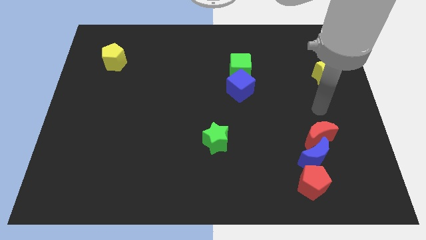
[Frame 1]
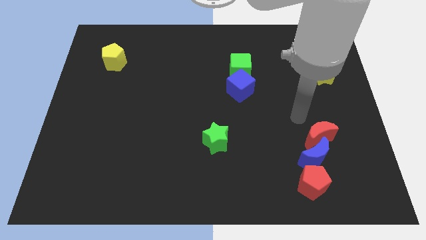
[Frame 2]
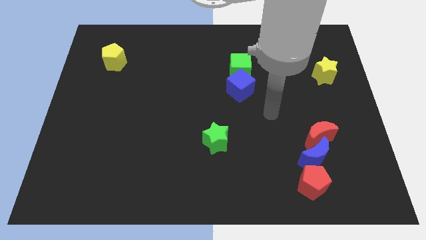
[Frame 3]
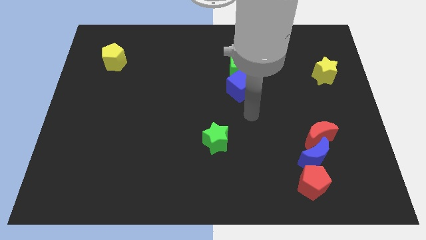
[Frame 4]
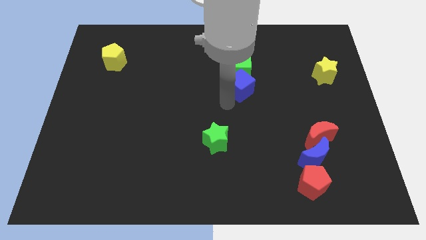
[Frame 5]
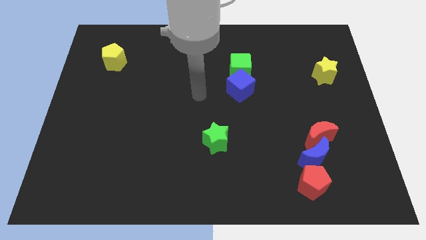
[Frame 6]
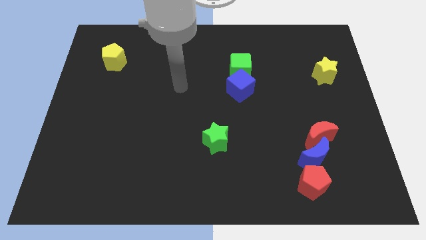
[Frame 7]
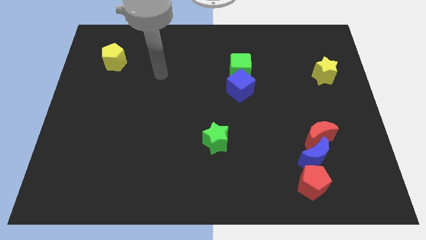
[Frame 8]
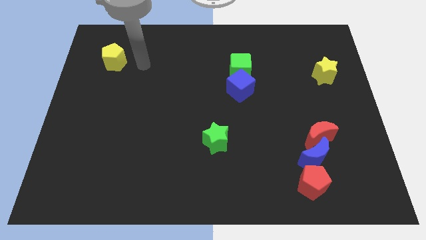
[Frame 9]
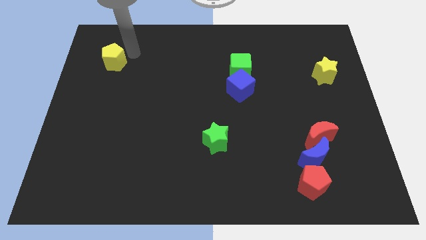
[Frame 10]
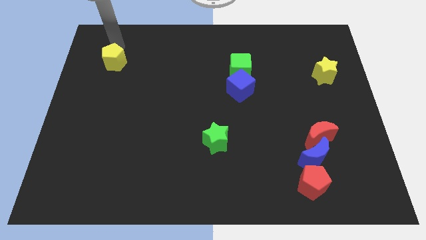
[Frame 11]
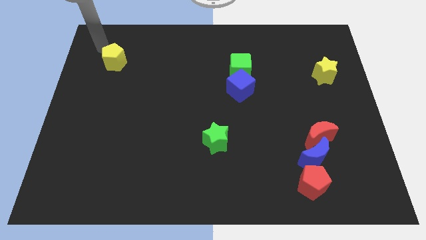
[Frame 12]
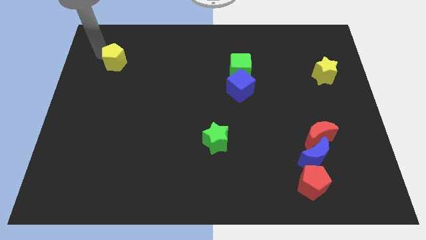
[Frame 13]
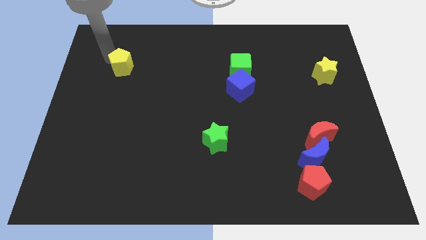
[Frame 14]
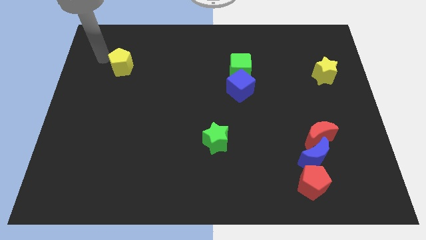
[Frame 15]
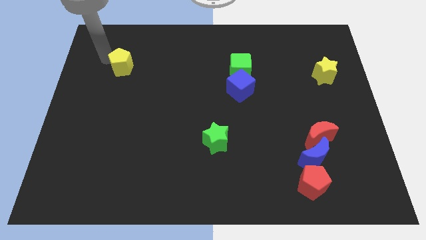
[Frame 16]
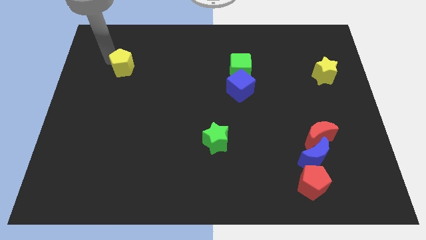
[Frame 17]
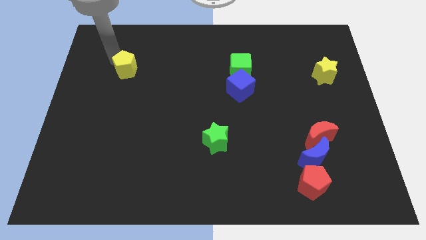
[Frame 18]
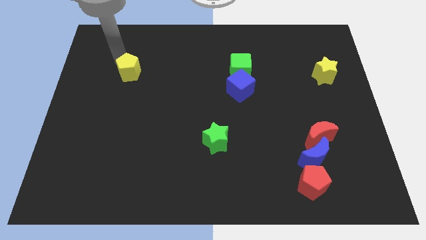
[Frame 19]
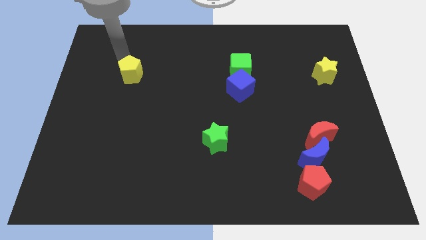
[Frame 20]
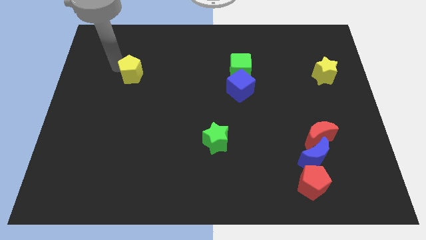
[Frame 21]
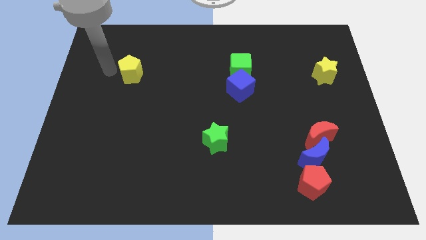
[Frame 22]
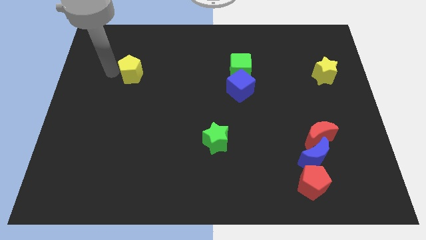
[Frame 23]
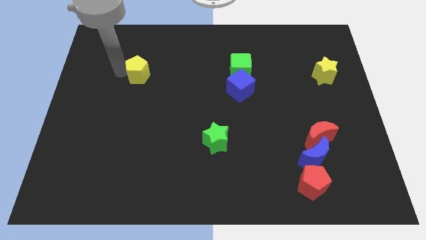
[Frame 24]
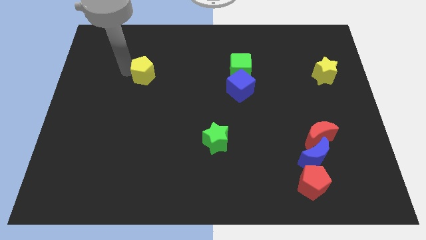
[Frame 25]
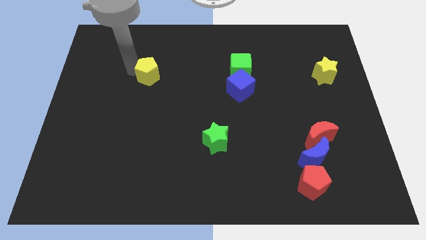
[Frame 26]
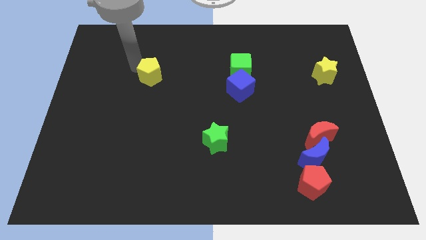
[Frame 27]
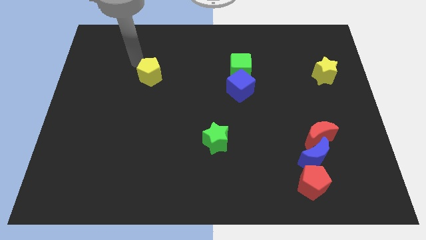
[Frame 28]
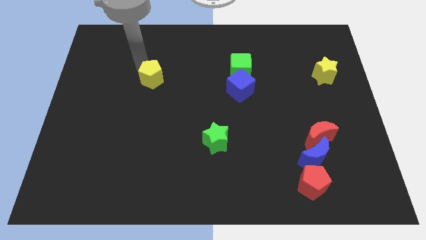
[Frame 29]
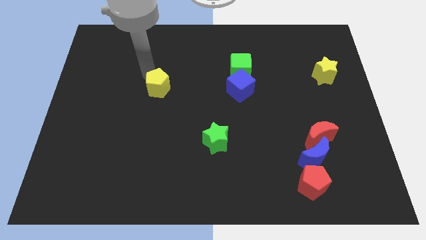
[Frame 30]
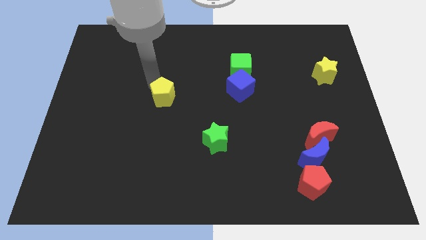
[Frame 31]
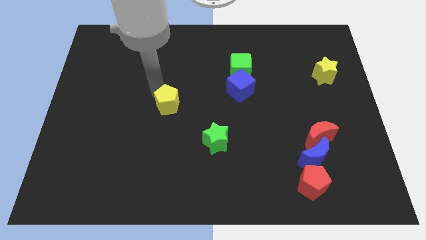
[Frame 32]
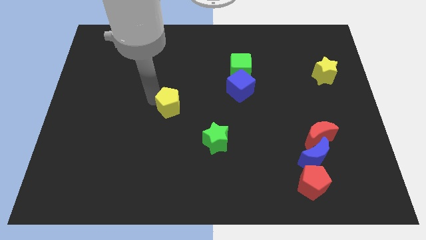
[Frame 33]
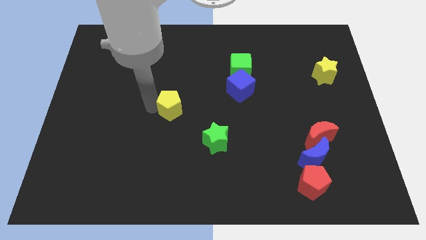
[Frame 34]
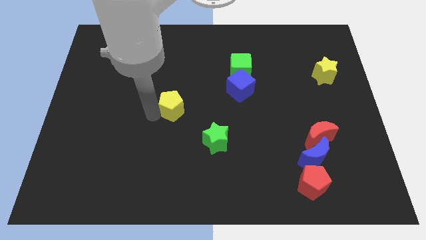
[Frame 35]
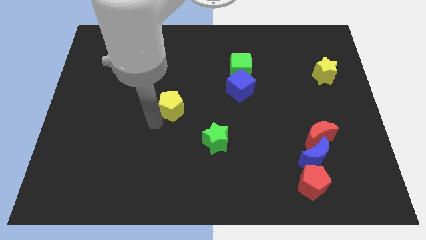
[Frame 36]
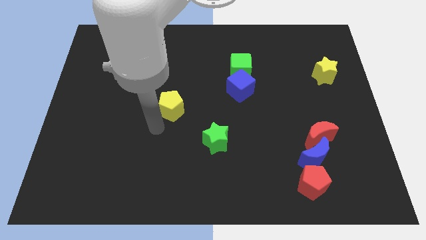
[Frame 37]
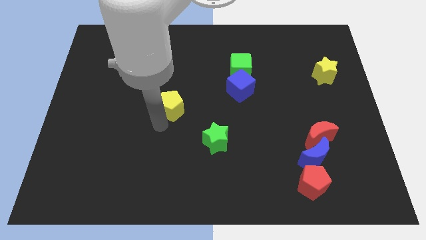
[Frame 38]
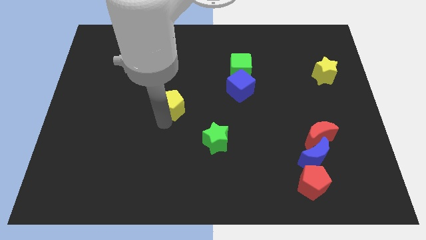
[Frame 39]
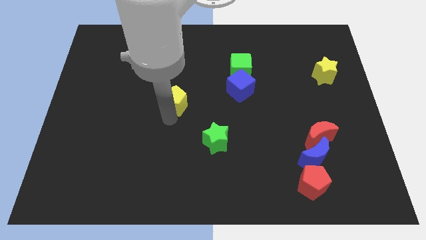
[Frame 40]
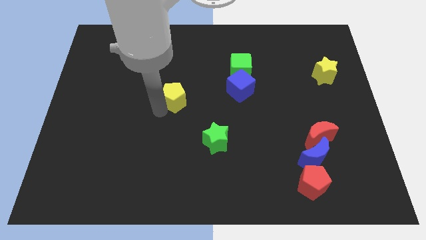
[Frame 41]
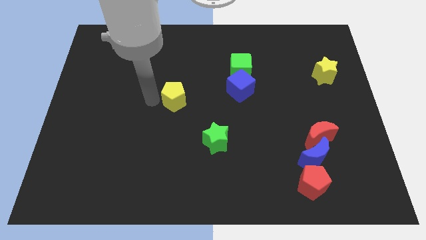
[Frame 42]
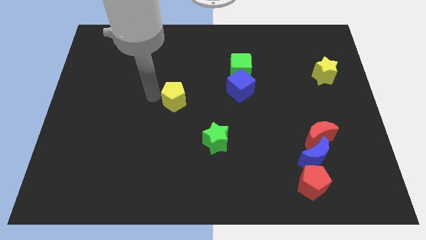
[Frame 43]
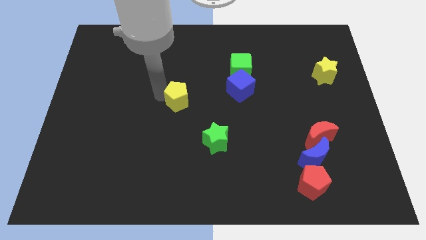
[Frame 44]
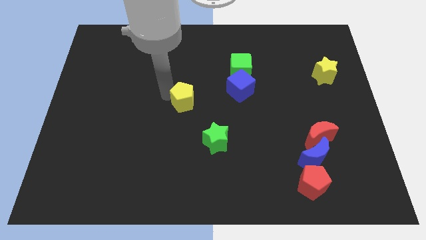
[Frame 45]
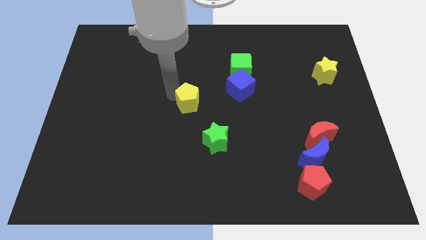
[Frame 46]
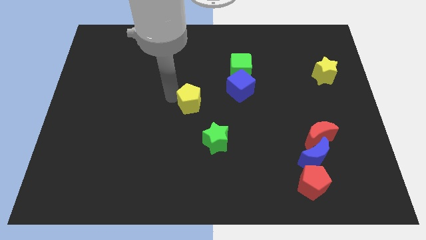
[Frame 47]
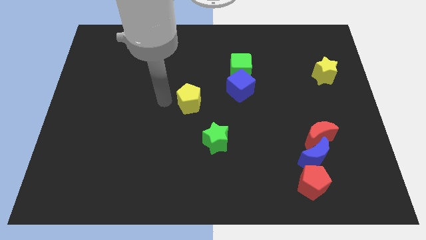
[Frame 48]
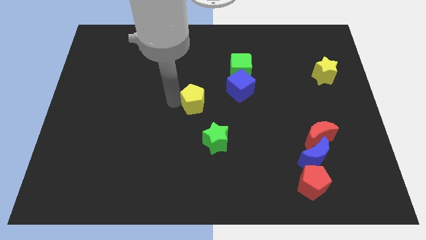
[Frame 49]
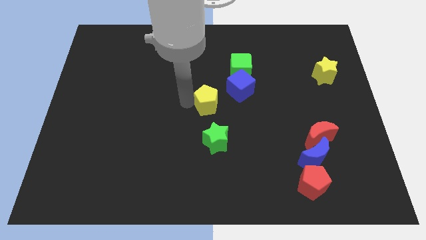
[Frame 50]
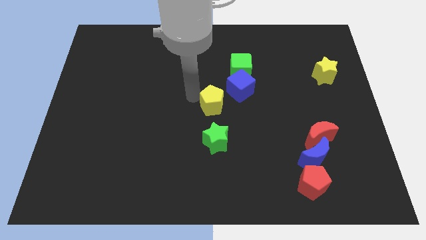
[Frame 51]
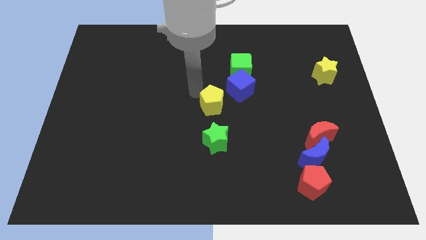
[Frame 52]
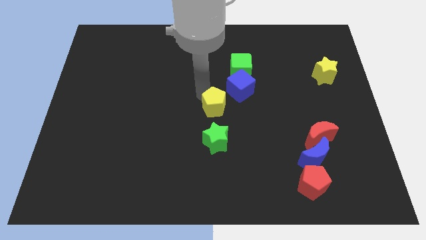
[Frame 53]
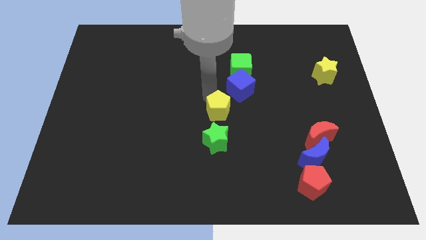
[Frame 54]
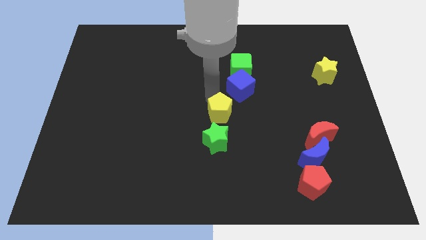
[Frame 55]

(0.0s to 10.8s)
slide the yellow pentagon below the blue cube

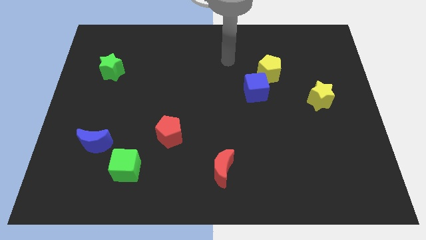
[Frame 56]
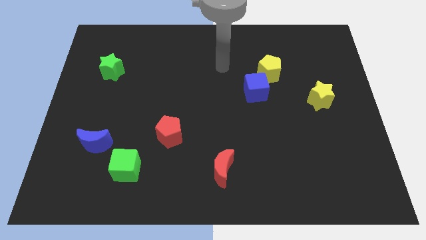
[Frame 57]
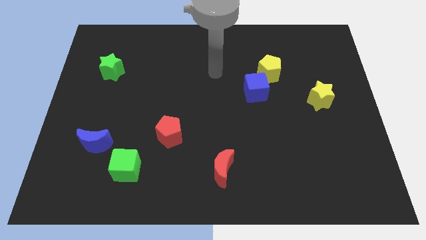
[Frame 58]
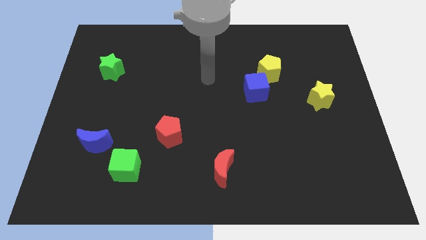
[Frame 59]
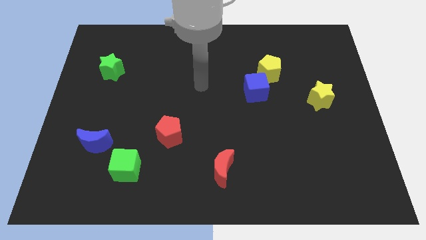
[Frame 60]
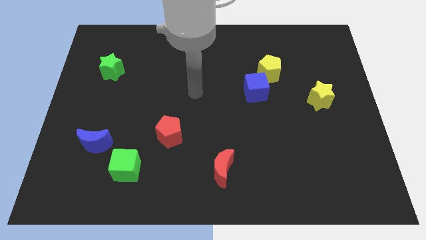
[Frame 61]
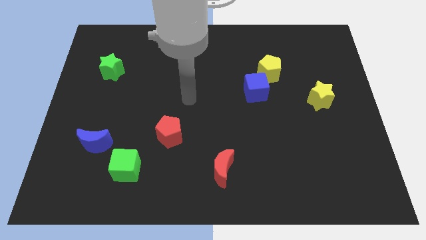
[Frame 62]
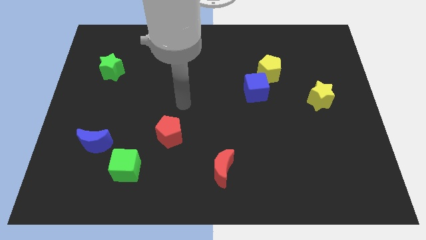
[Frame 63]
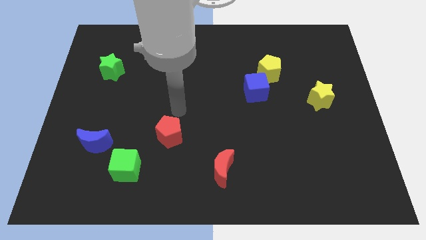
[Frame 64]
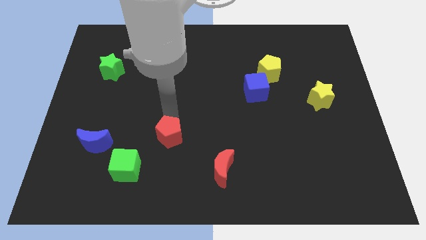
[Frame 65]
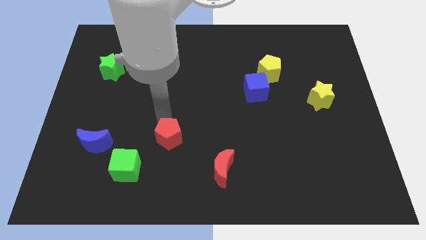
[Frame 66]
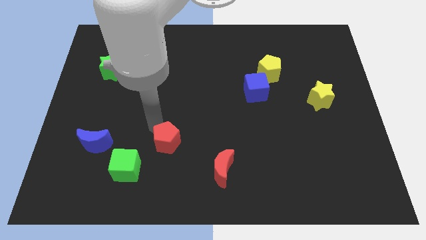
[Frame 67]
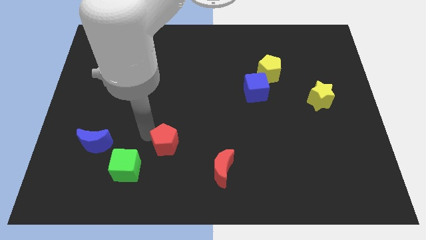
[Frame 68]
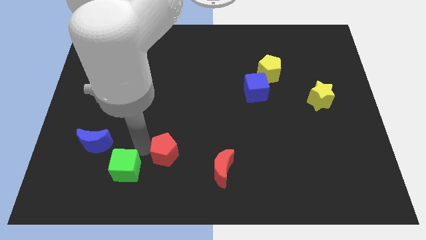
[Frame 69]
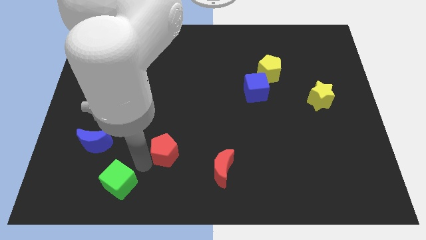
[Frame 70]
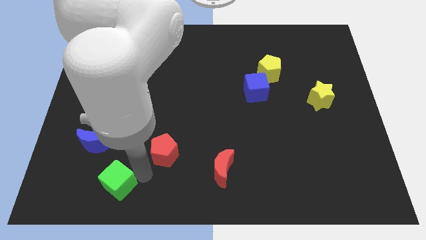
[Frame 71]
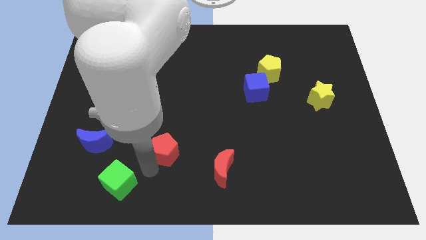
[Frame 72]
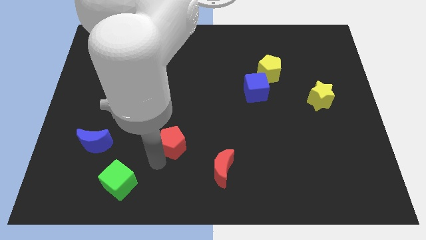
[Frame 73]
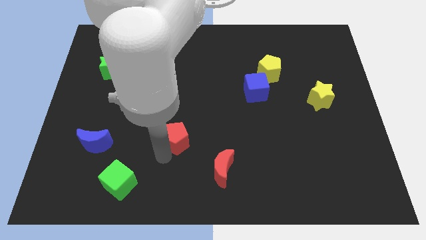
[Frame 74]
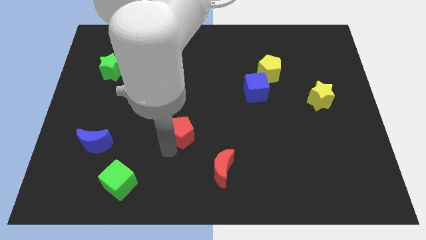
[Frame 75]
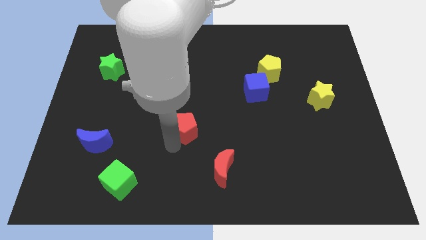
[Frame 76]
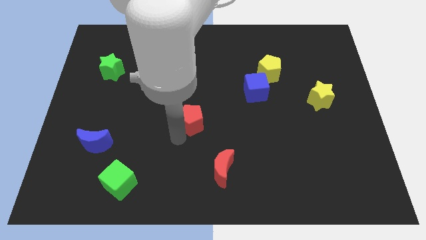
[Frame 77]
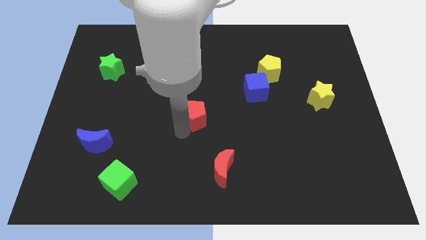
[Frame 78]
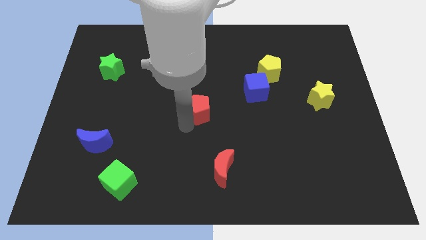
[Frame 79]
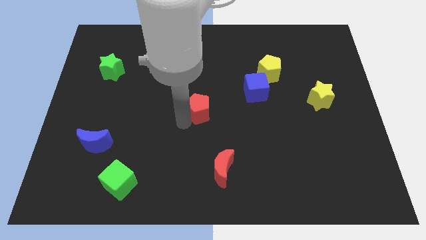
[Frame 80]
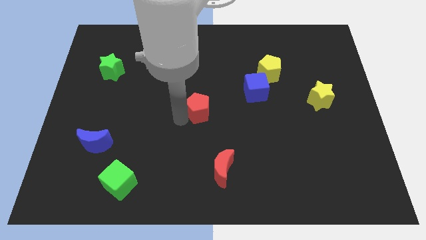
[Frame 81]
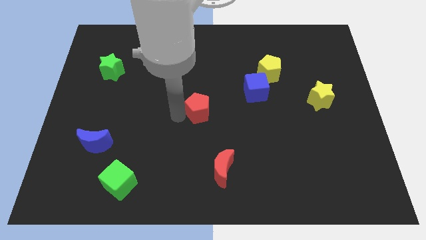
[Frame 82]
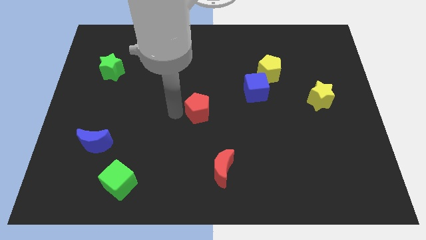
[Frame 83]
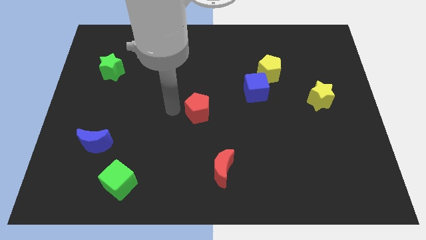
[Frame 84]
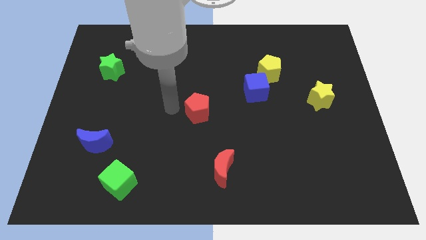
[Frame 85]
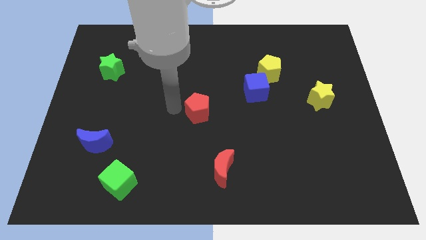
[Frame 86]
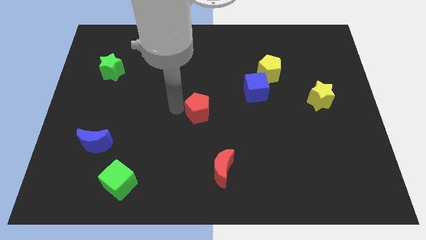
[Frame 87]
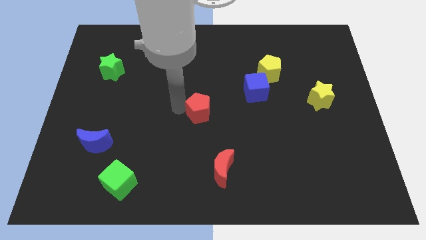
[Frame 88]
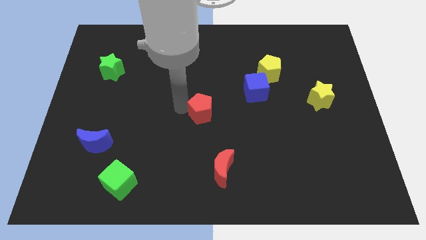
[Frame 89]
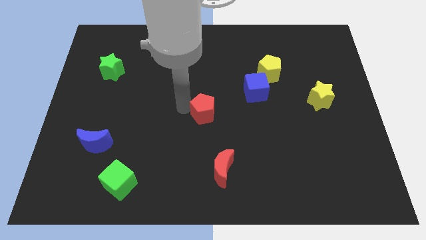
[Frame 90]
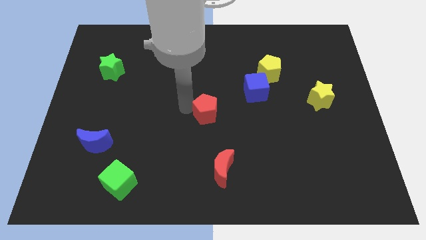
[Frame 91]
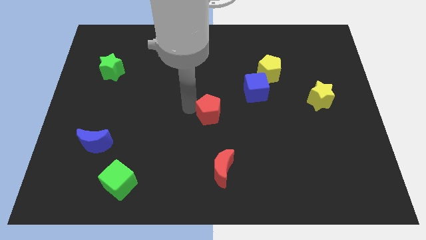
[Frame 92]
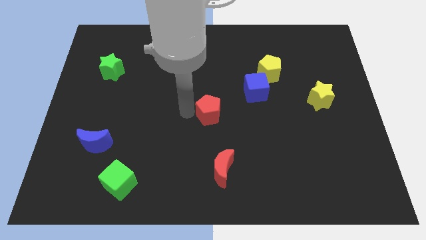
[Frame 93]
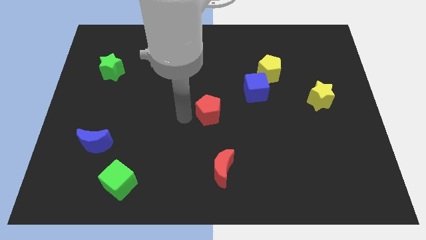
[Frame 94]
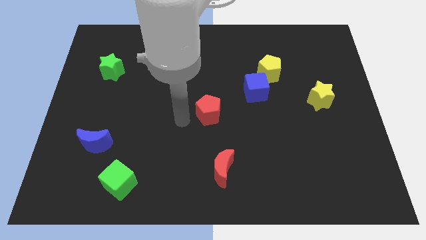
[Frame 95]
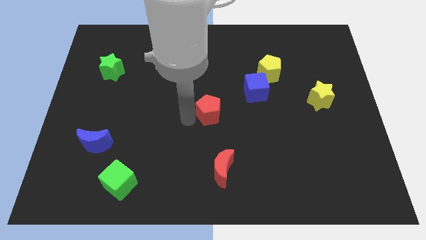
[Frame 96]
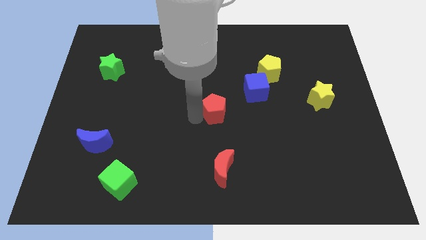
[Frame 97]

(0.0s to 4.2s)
put the red pentagon diagonally down and to the left of the blue cube
